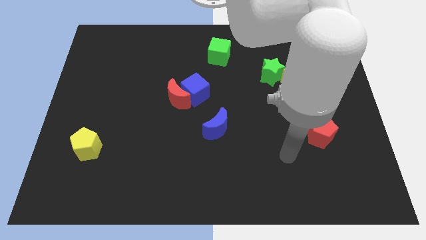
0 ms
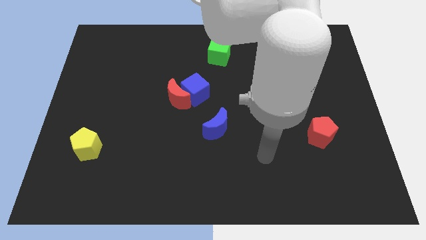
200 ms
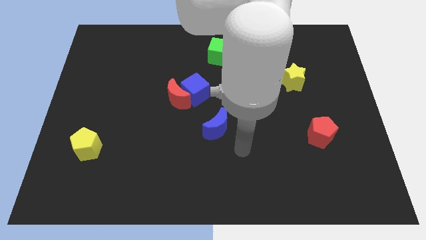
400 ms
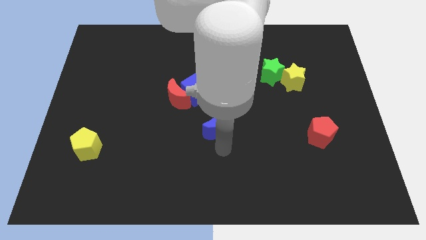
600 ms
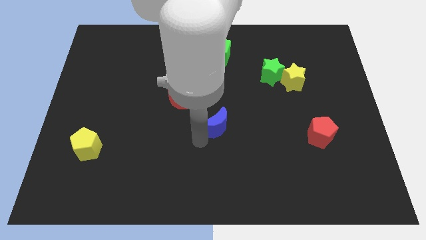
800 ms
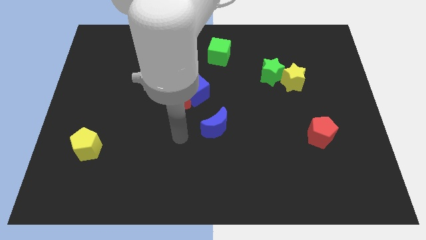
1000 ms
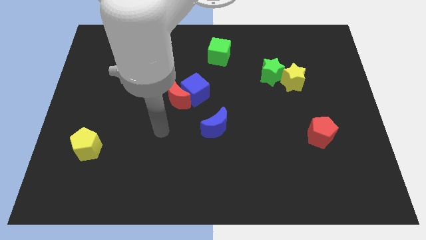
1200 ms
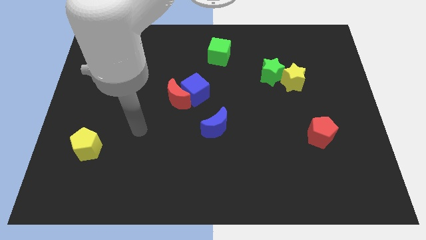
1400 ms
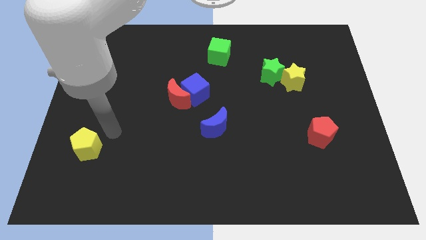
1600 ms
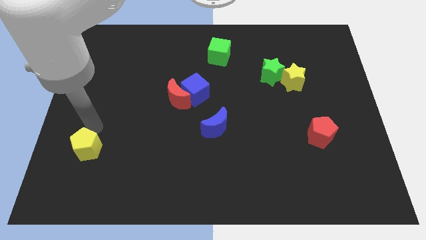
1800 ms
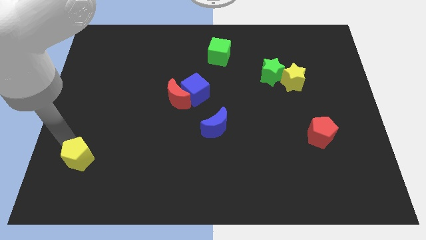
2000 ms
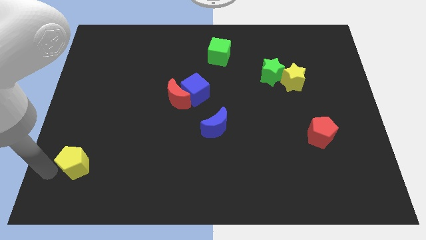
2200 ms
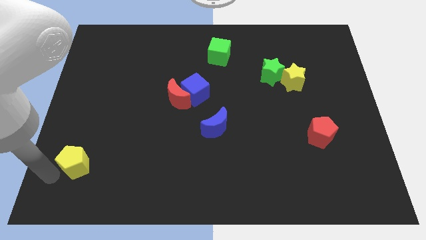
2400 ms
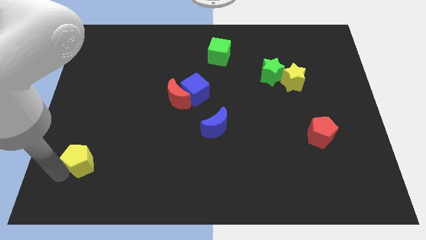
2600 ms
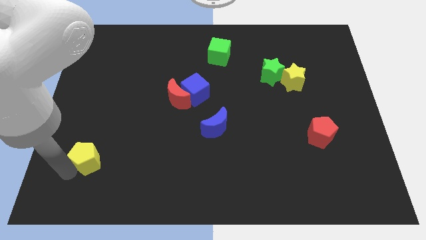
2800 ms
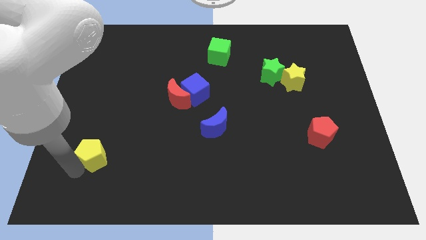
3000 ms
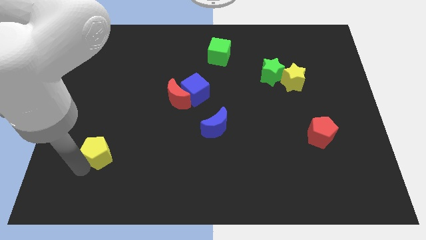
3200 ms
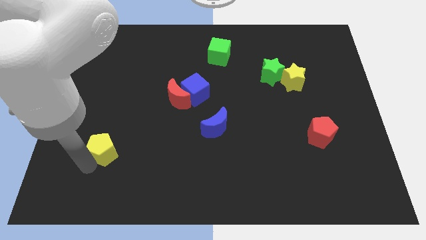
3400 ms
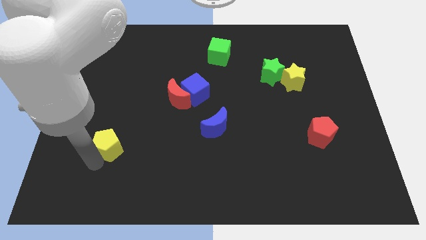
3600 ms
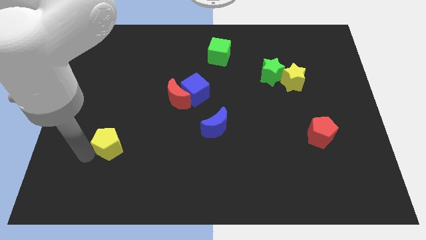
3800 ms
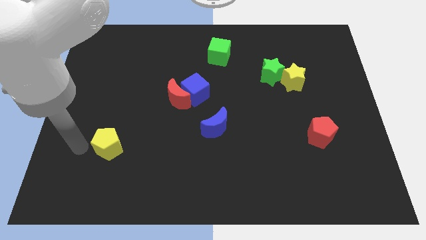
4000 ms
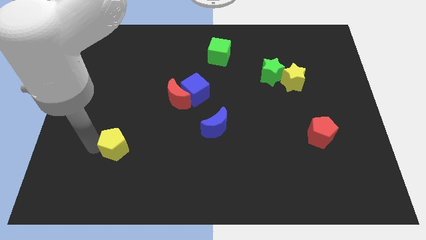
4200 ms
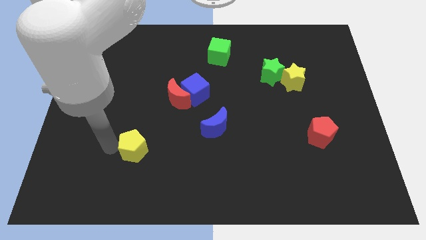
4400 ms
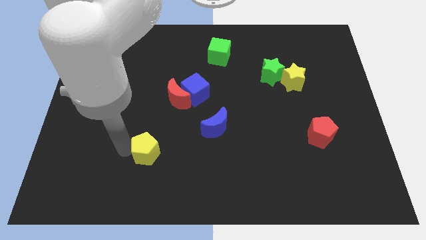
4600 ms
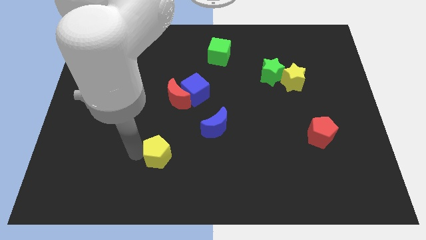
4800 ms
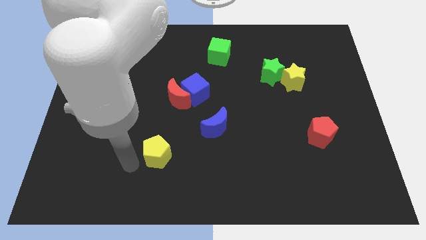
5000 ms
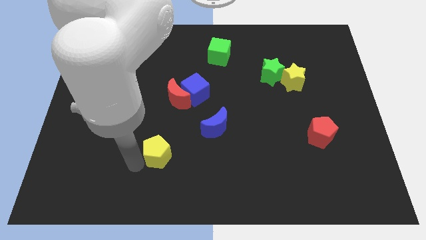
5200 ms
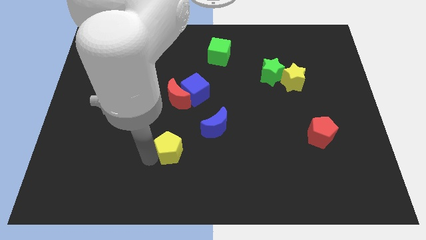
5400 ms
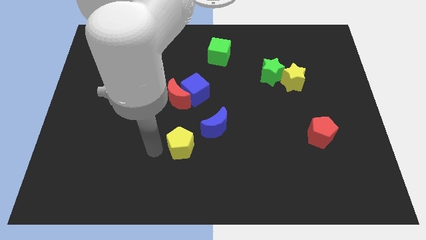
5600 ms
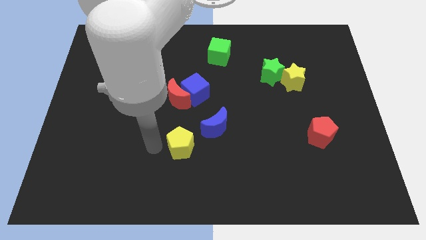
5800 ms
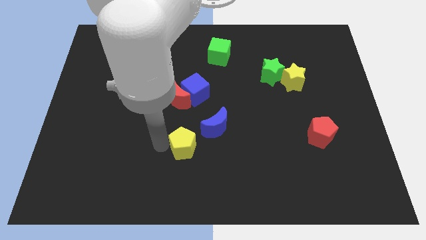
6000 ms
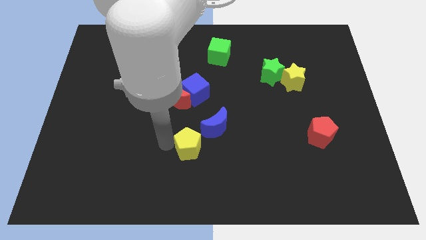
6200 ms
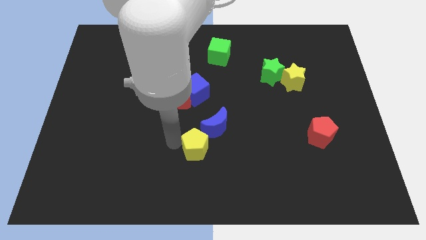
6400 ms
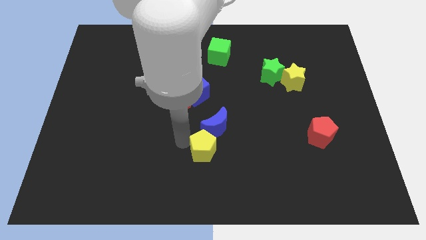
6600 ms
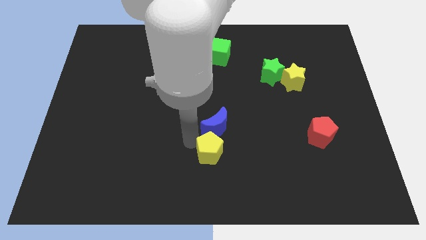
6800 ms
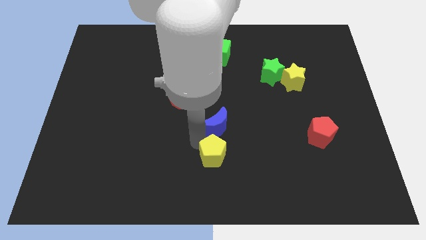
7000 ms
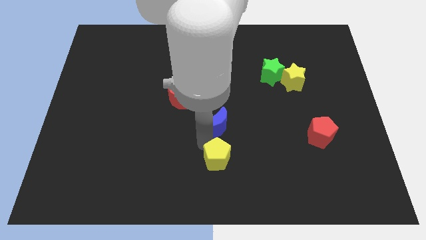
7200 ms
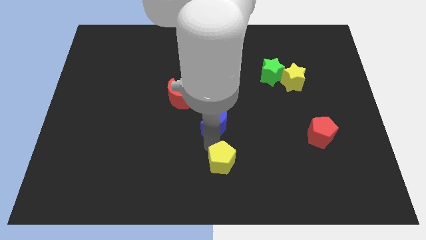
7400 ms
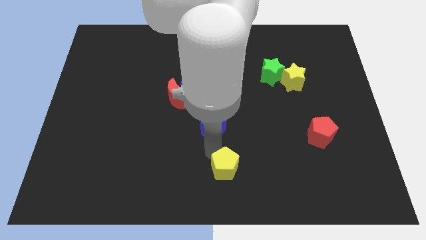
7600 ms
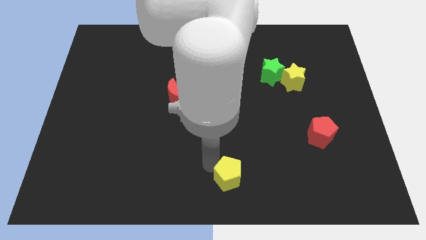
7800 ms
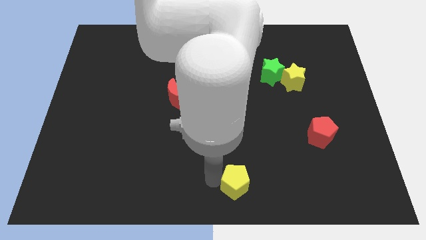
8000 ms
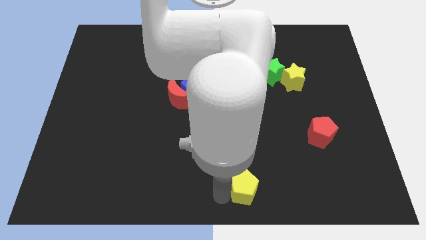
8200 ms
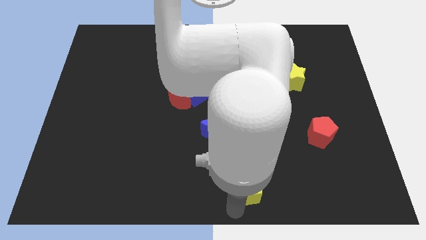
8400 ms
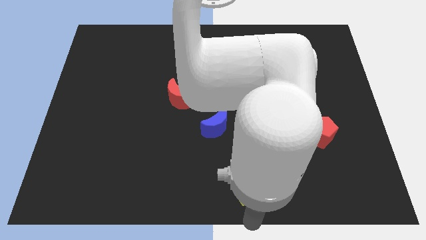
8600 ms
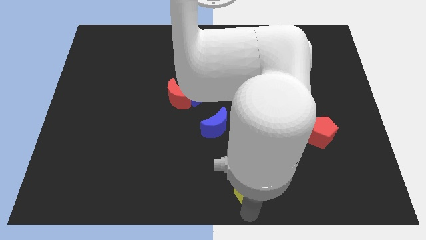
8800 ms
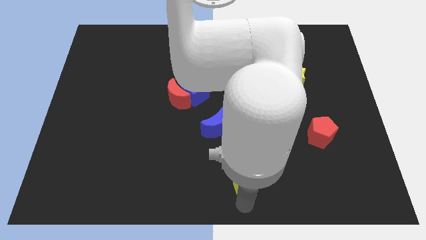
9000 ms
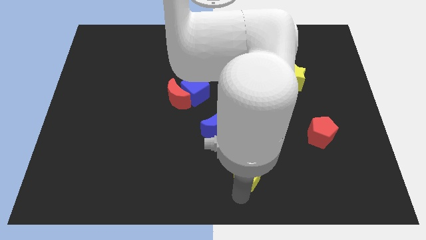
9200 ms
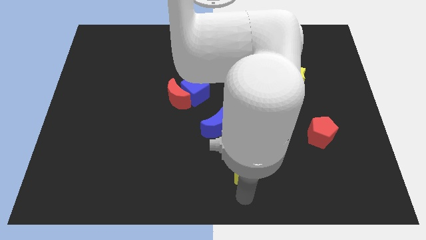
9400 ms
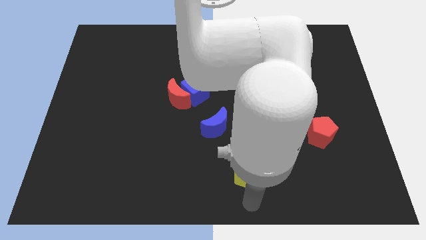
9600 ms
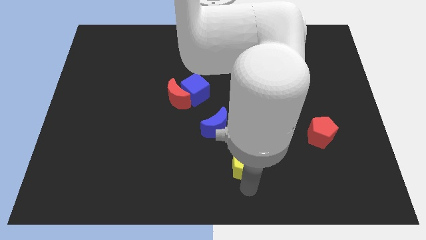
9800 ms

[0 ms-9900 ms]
put the yellow pentagon to the bottom right side of the blue moon

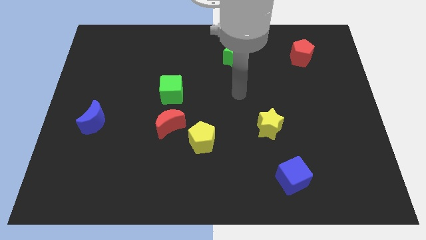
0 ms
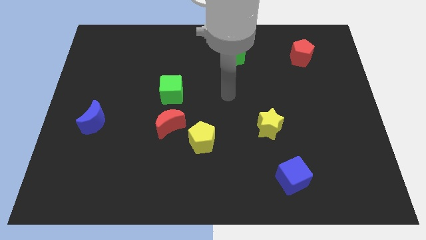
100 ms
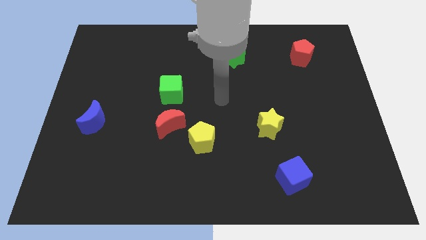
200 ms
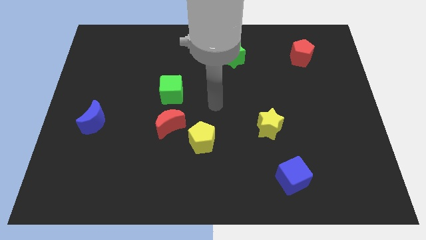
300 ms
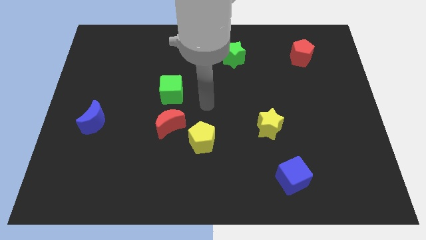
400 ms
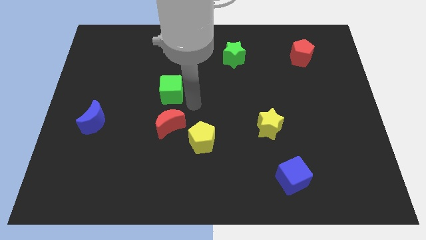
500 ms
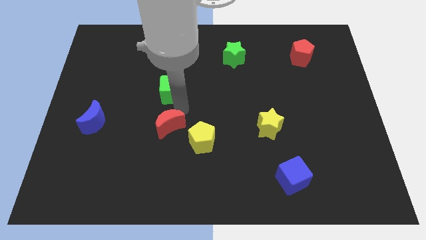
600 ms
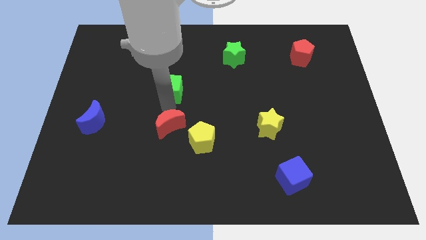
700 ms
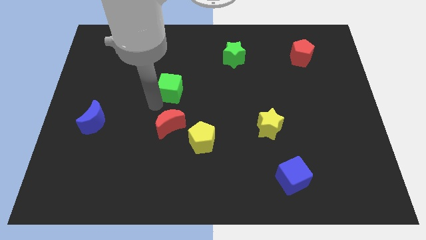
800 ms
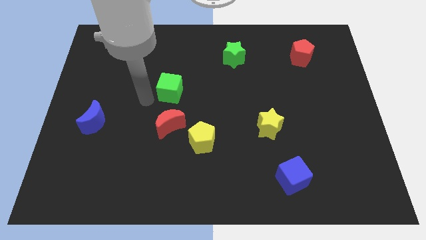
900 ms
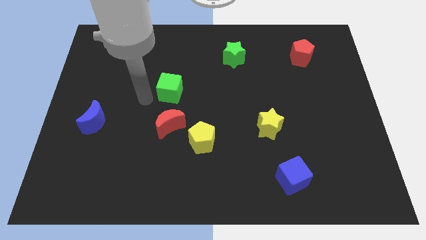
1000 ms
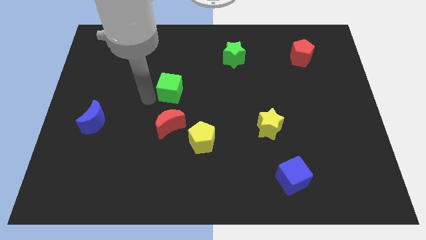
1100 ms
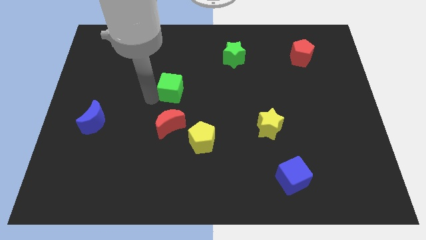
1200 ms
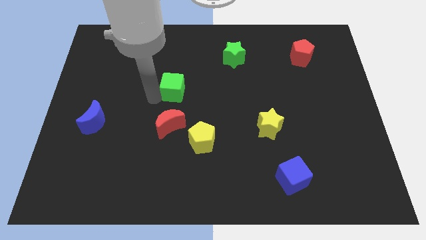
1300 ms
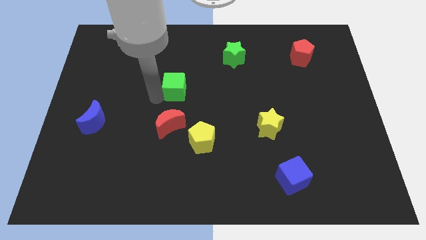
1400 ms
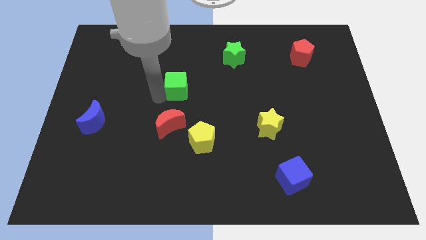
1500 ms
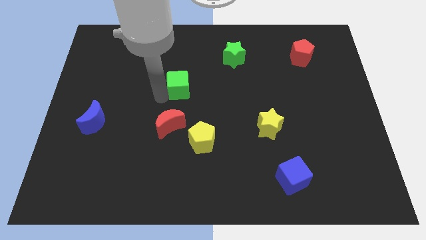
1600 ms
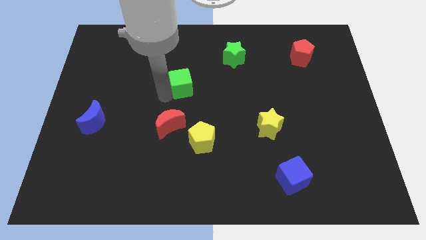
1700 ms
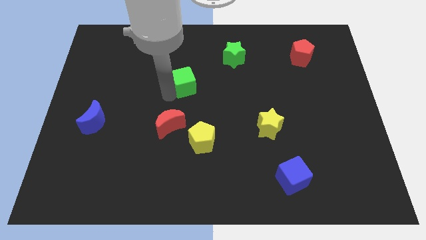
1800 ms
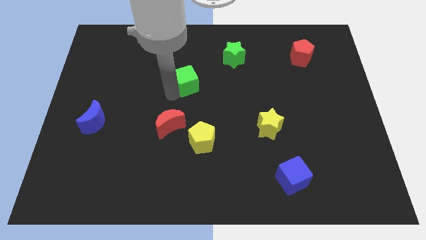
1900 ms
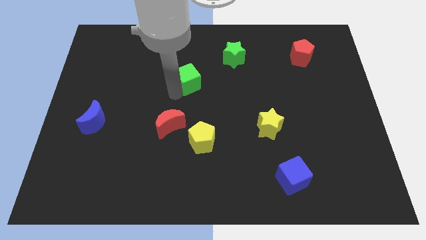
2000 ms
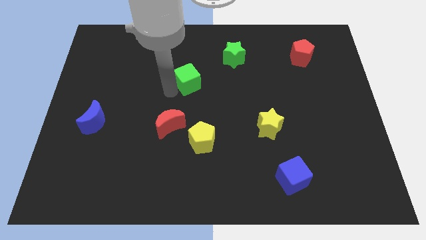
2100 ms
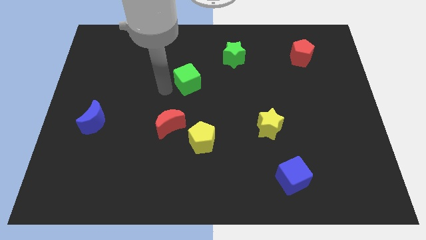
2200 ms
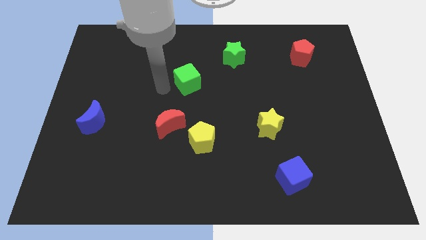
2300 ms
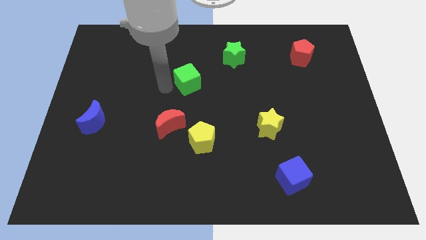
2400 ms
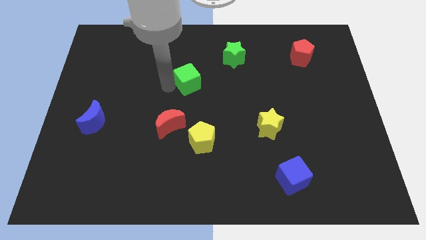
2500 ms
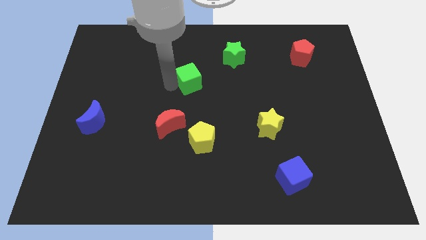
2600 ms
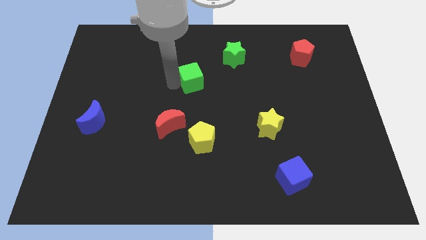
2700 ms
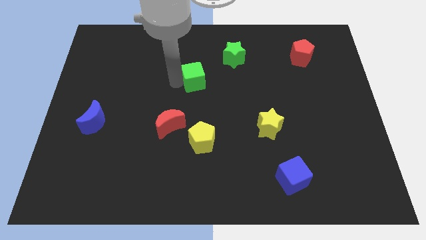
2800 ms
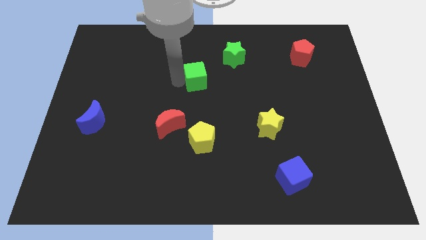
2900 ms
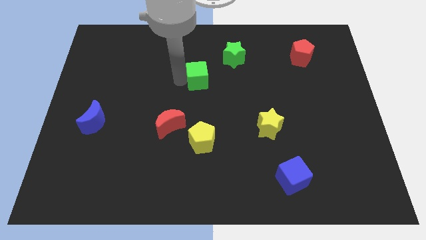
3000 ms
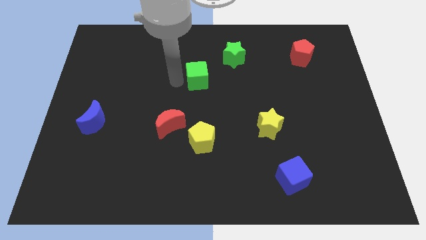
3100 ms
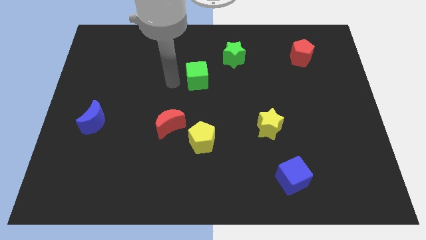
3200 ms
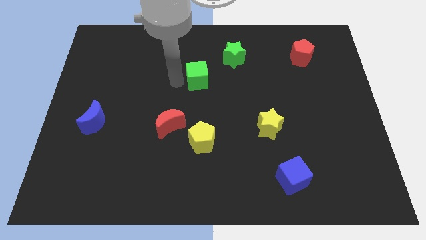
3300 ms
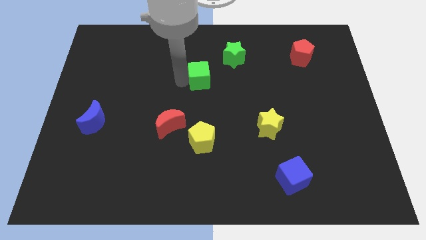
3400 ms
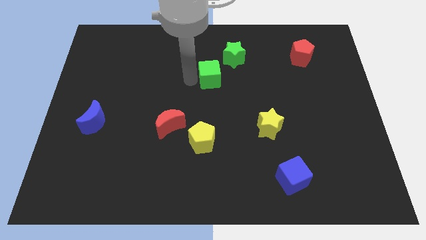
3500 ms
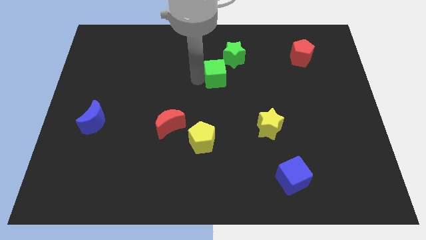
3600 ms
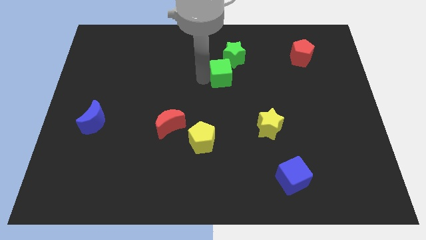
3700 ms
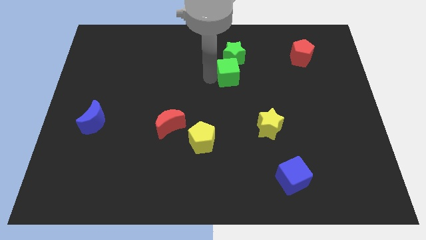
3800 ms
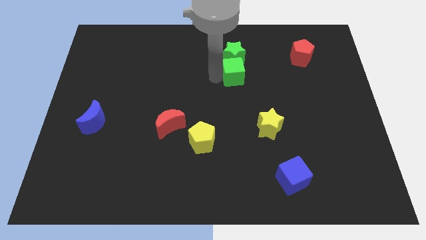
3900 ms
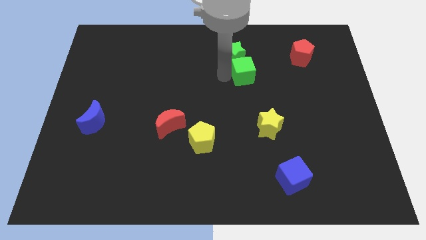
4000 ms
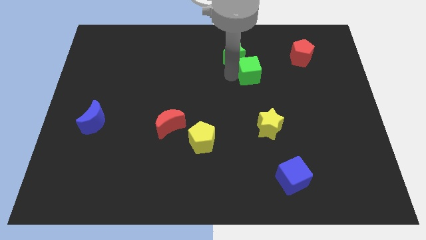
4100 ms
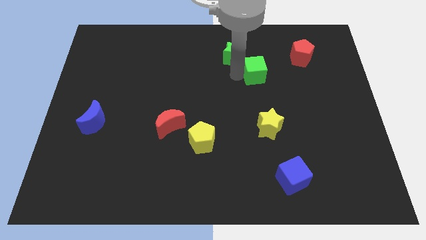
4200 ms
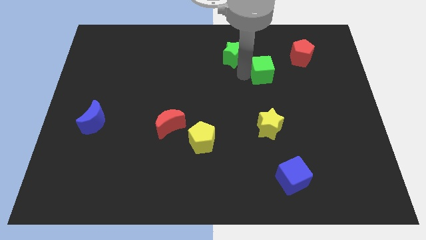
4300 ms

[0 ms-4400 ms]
slide the green cube to the bottom left of the red pentagon
